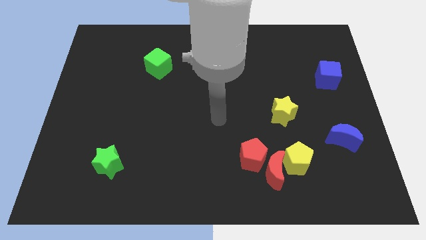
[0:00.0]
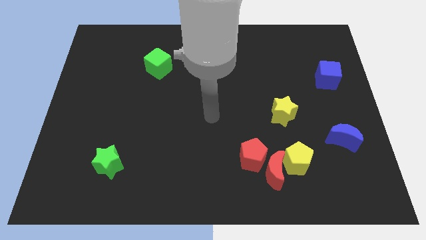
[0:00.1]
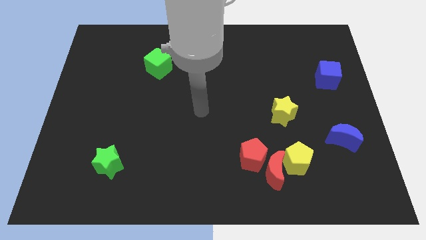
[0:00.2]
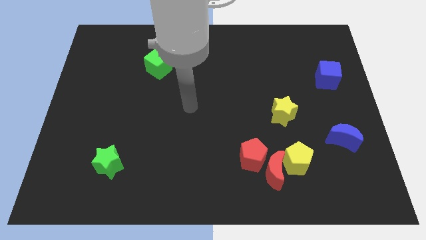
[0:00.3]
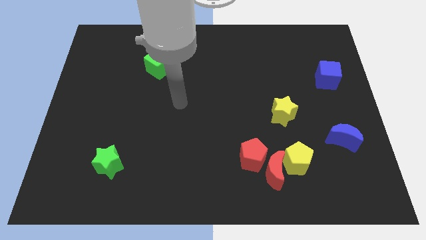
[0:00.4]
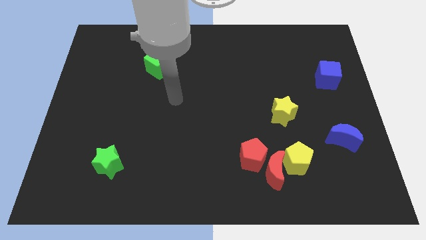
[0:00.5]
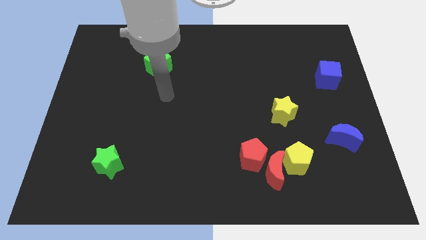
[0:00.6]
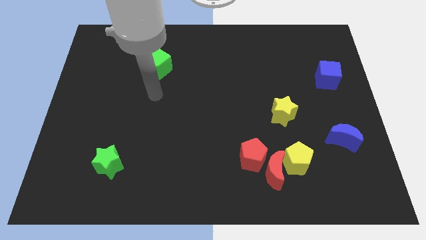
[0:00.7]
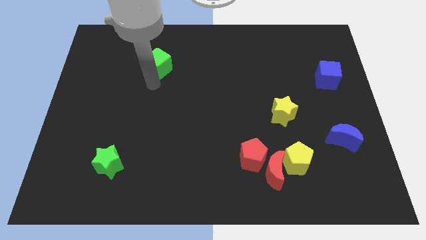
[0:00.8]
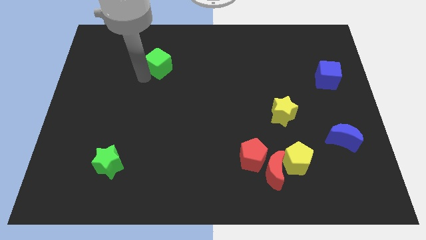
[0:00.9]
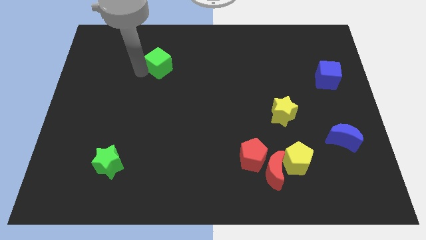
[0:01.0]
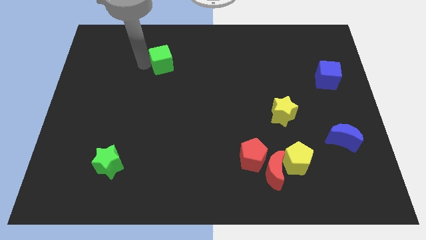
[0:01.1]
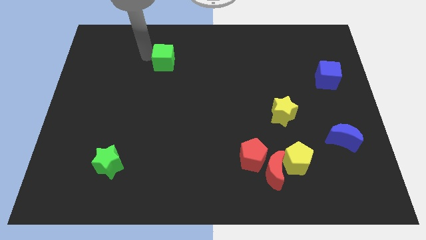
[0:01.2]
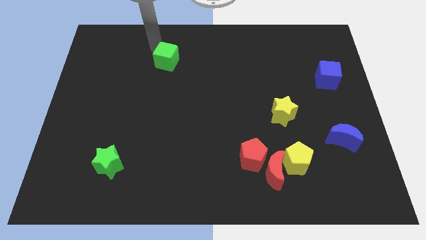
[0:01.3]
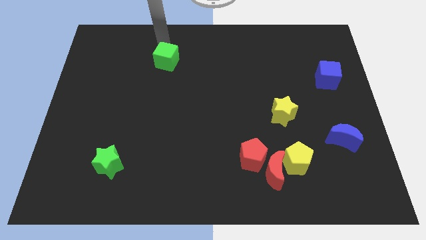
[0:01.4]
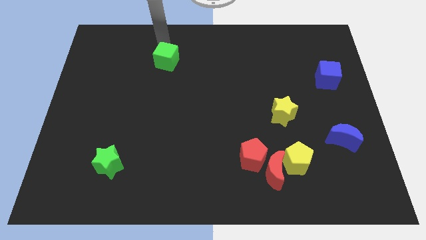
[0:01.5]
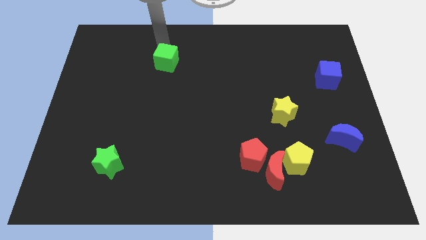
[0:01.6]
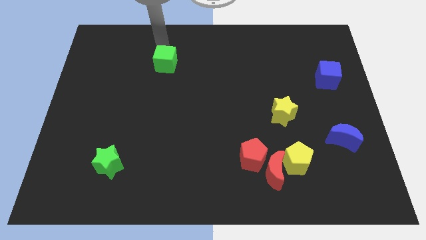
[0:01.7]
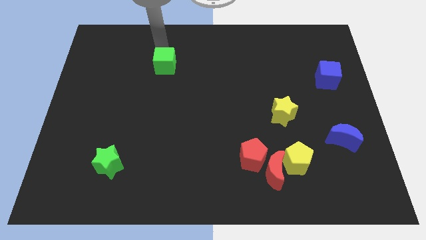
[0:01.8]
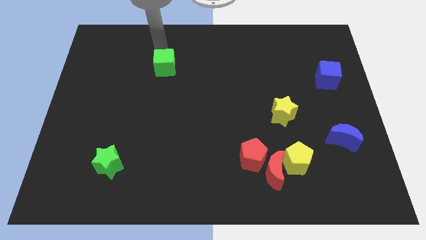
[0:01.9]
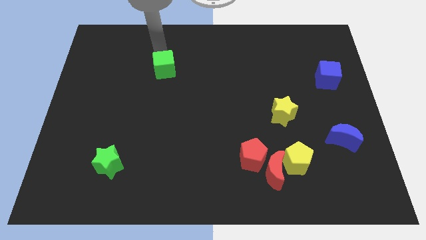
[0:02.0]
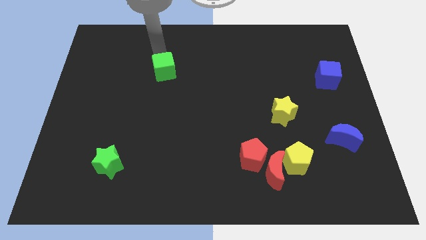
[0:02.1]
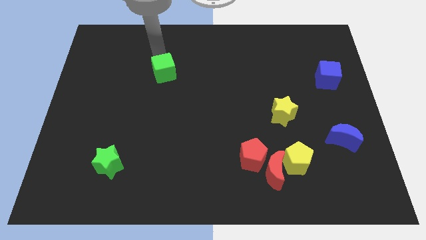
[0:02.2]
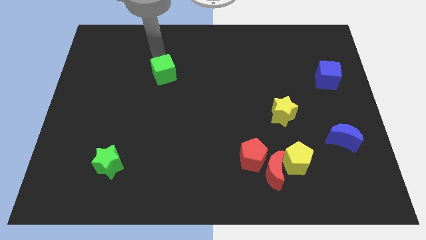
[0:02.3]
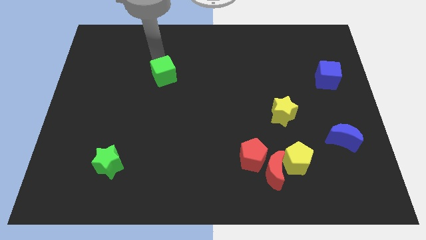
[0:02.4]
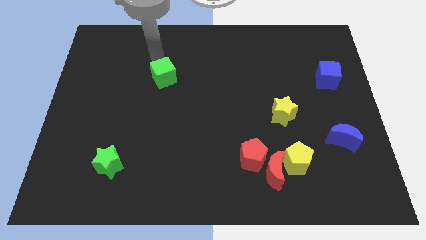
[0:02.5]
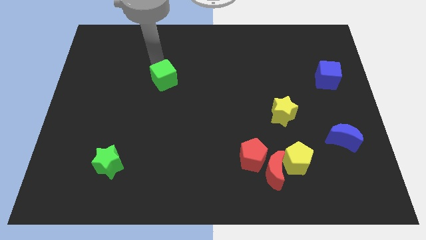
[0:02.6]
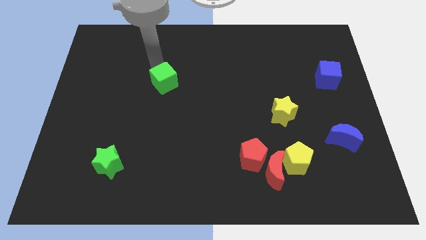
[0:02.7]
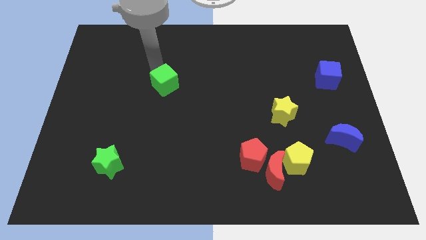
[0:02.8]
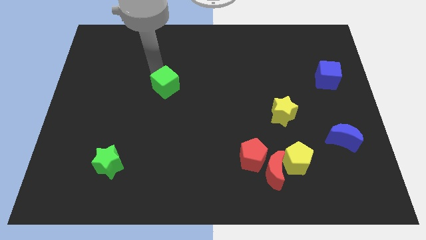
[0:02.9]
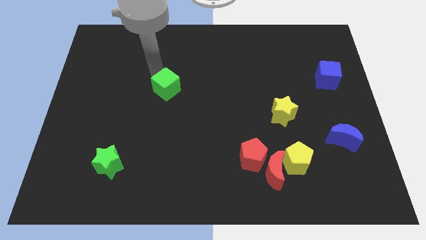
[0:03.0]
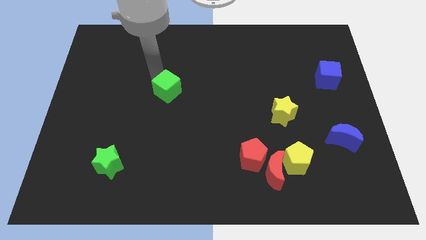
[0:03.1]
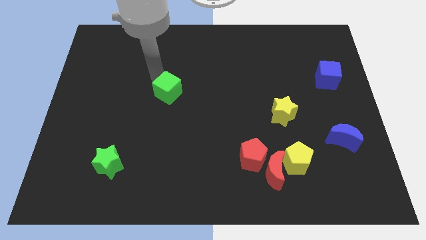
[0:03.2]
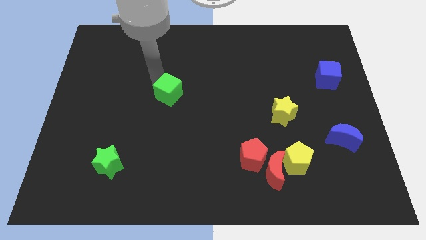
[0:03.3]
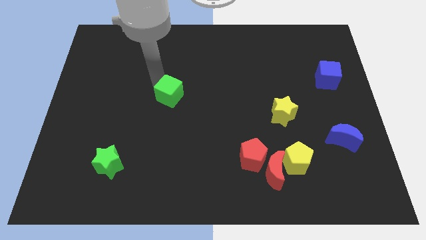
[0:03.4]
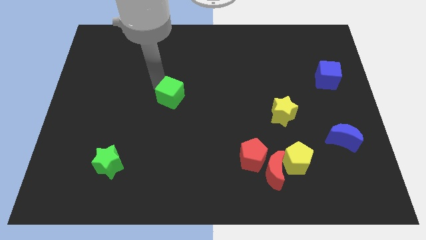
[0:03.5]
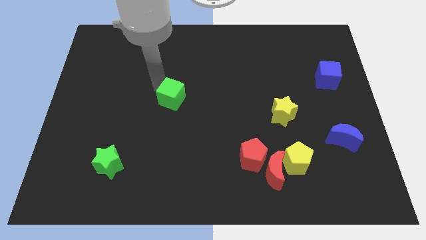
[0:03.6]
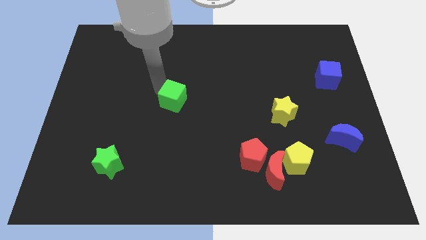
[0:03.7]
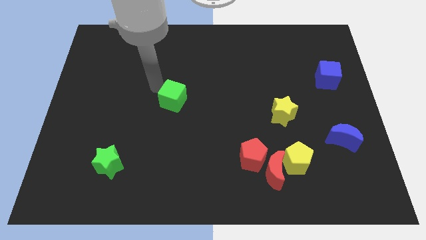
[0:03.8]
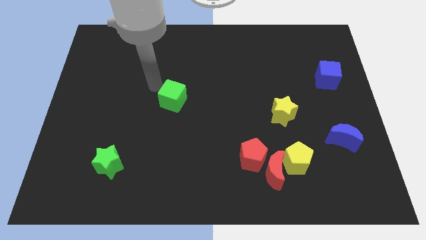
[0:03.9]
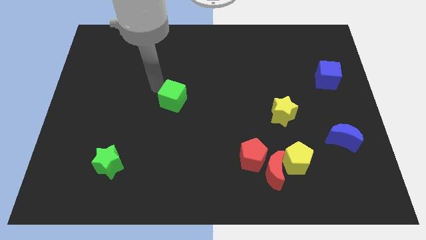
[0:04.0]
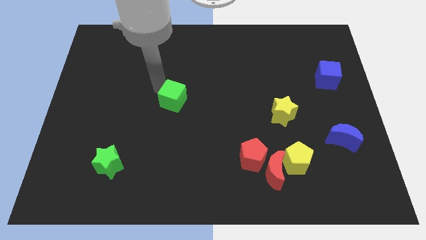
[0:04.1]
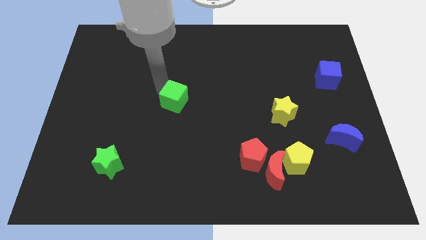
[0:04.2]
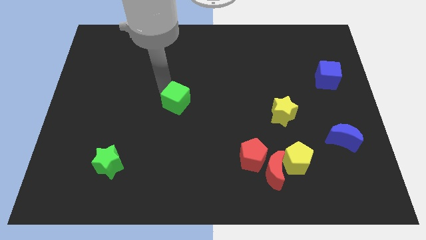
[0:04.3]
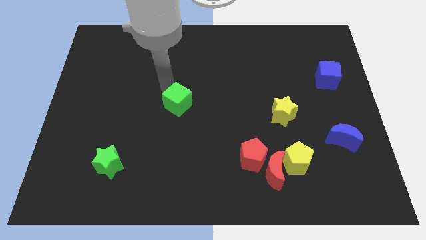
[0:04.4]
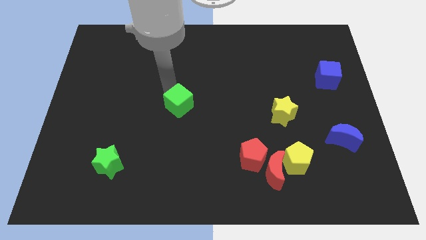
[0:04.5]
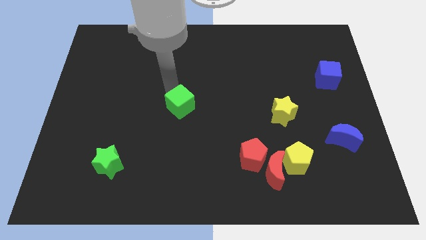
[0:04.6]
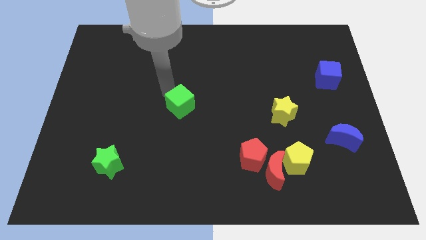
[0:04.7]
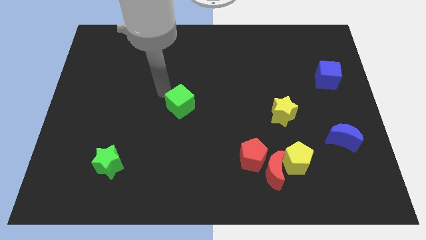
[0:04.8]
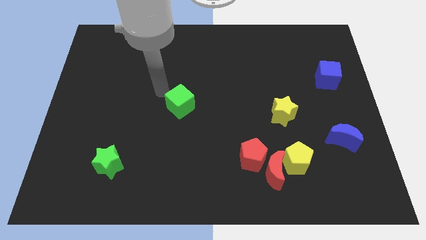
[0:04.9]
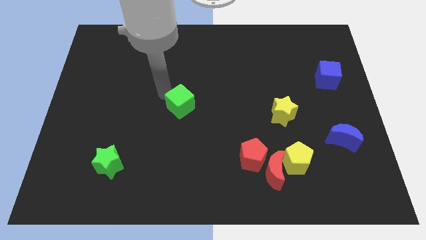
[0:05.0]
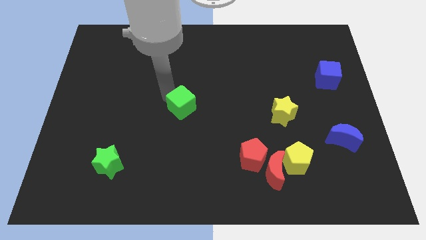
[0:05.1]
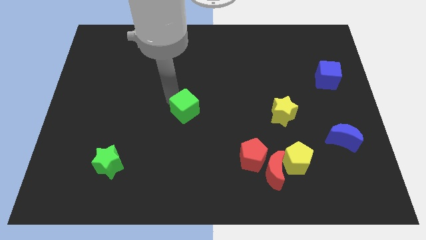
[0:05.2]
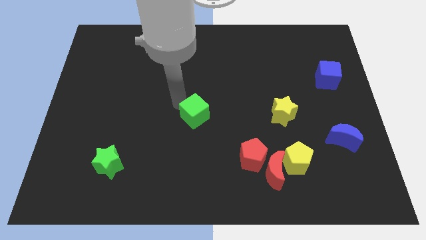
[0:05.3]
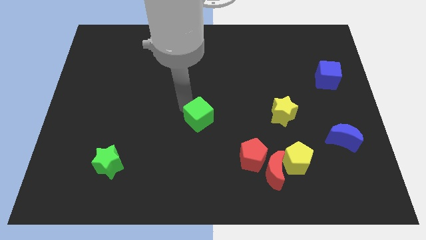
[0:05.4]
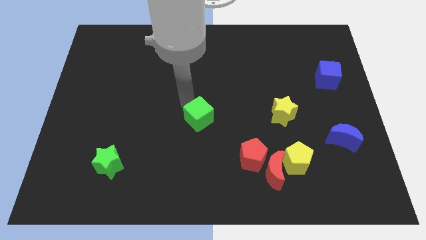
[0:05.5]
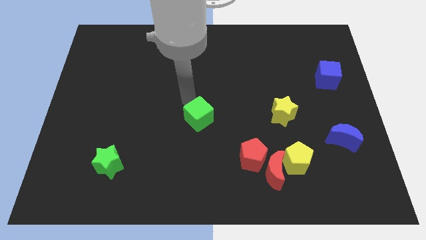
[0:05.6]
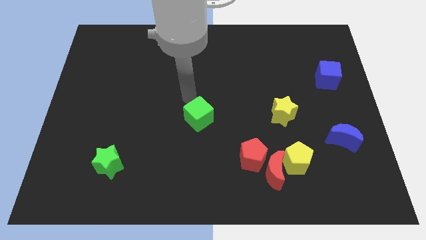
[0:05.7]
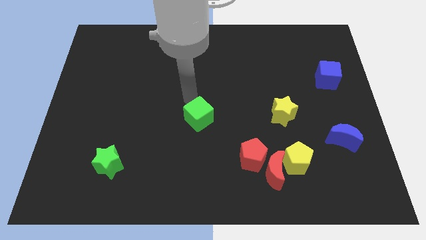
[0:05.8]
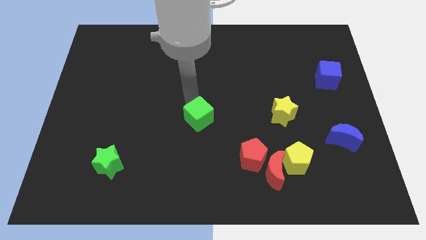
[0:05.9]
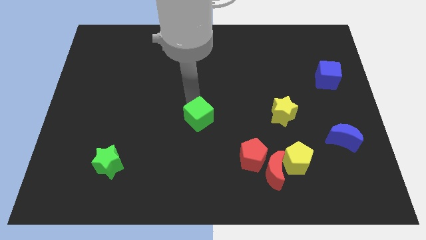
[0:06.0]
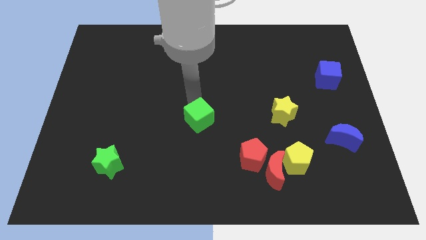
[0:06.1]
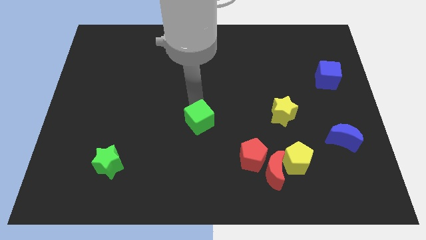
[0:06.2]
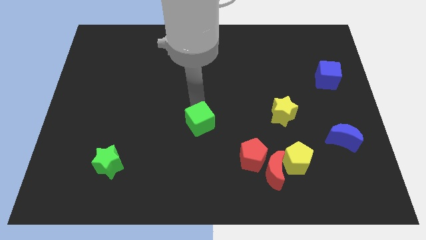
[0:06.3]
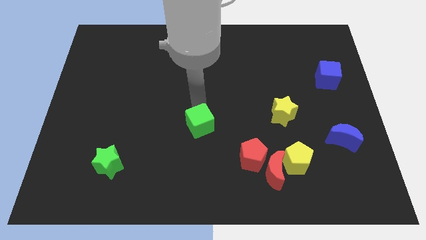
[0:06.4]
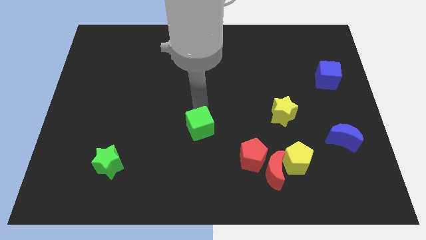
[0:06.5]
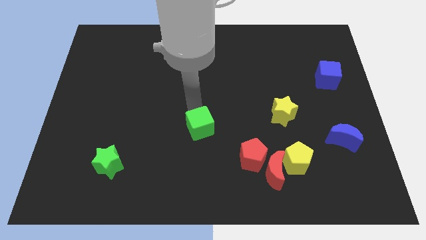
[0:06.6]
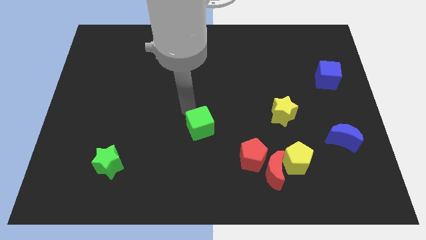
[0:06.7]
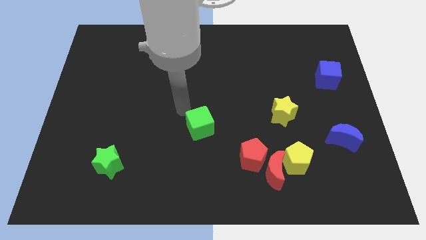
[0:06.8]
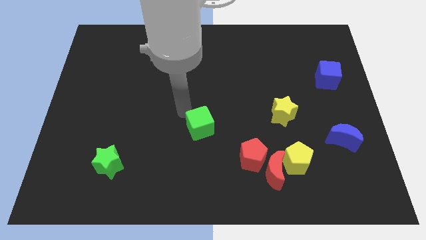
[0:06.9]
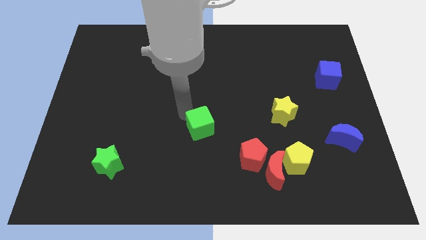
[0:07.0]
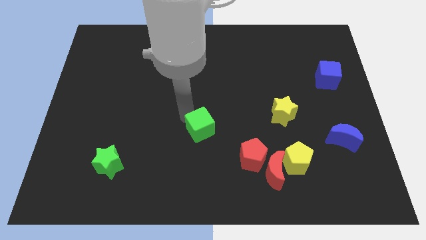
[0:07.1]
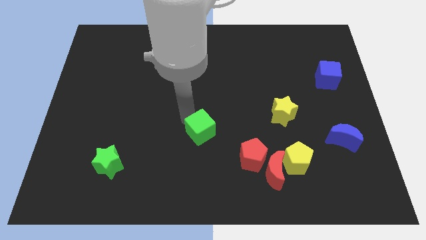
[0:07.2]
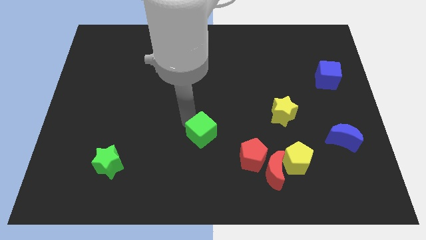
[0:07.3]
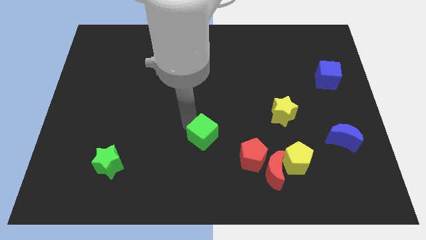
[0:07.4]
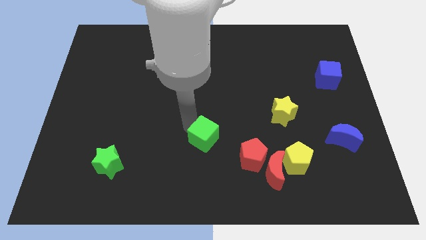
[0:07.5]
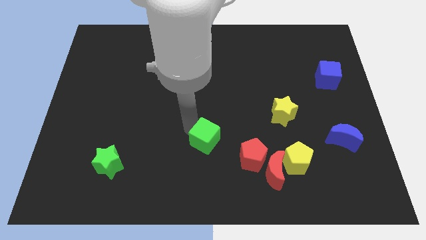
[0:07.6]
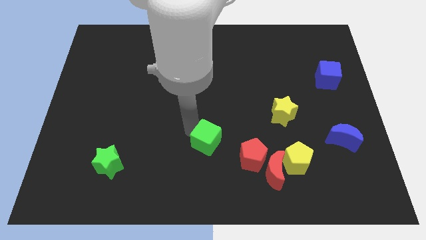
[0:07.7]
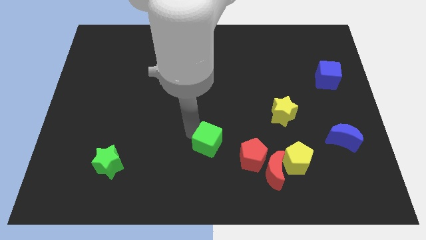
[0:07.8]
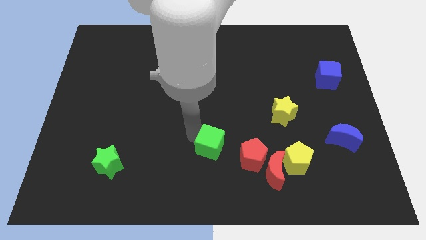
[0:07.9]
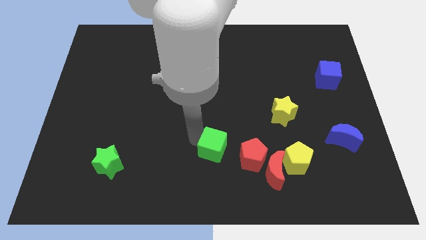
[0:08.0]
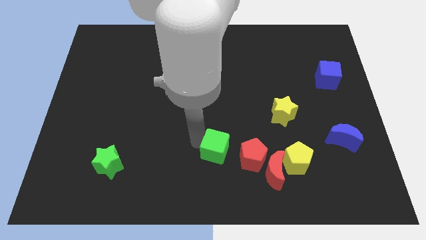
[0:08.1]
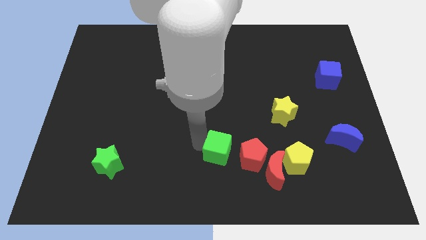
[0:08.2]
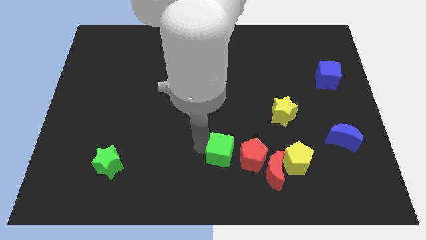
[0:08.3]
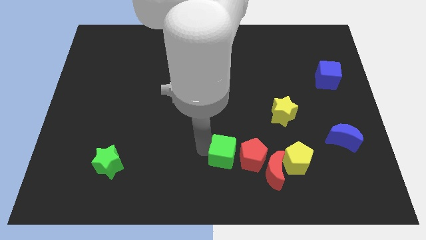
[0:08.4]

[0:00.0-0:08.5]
slide the green cube to the top left side of the red moon
